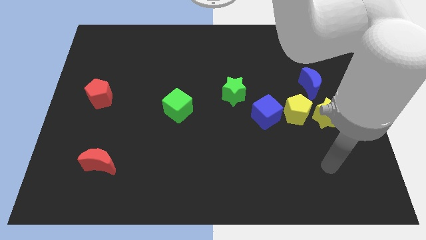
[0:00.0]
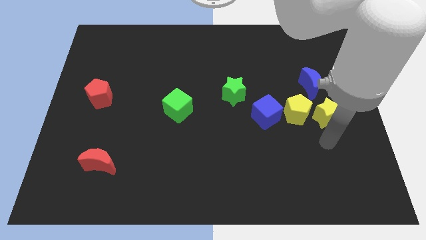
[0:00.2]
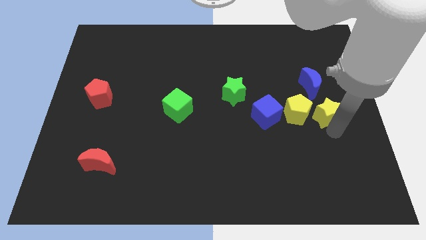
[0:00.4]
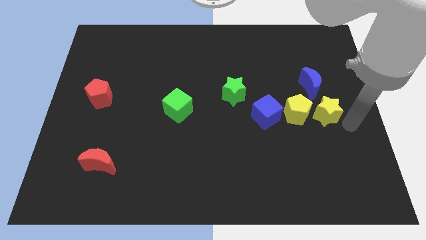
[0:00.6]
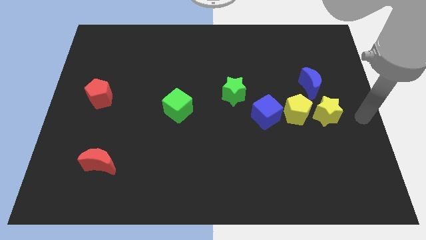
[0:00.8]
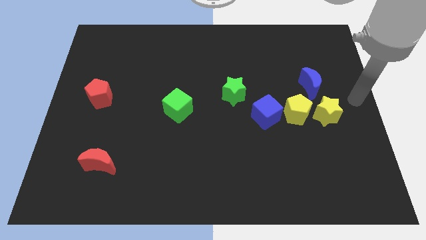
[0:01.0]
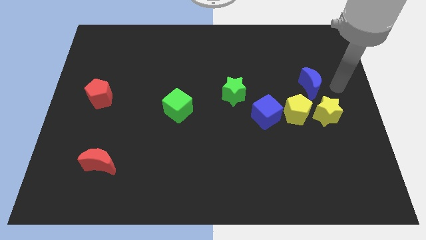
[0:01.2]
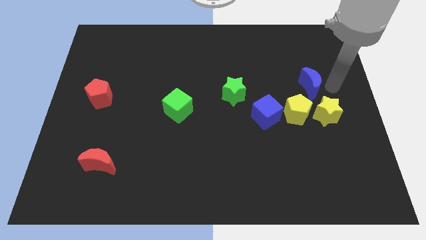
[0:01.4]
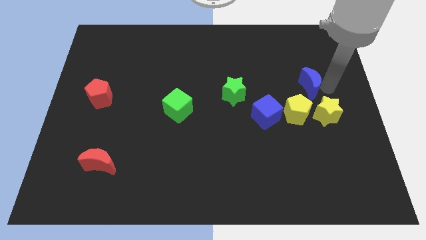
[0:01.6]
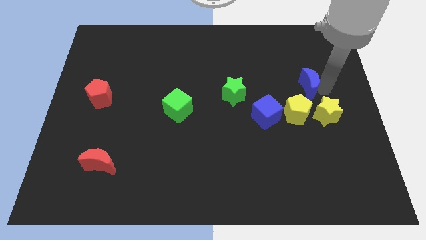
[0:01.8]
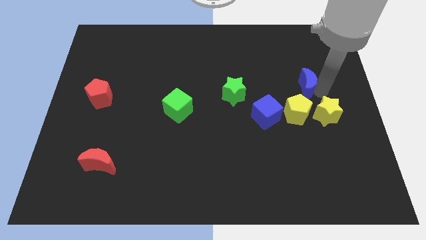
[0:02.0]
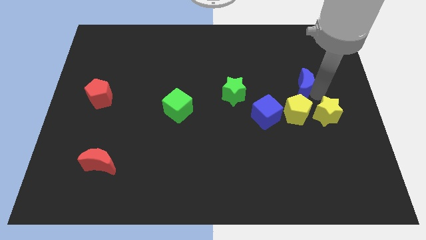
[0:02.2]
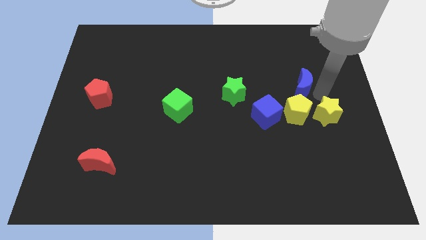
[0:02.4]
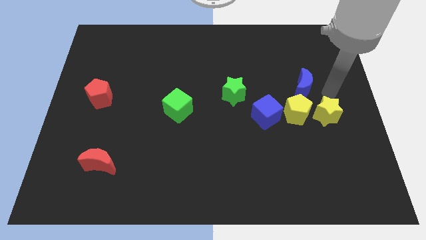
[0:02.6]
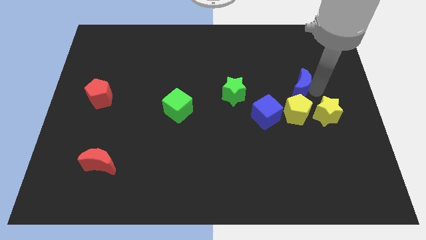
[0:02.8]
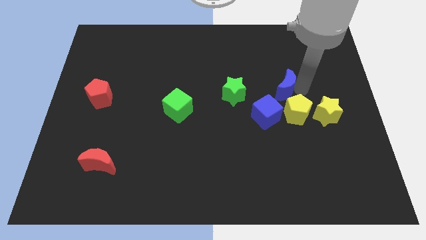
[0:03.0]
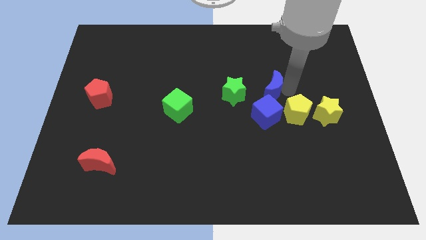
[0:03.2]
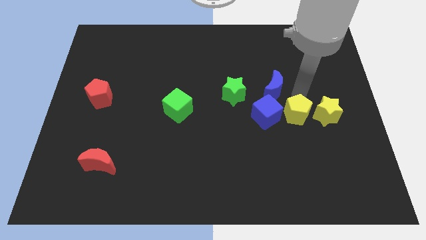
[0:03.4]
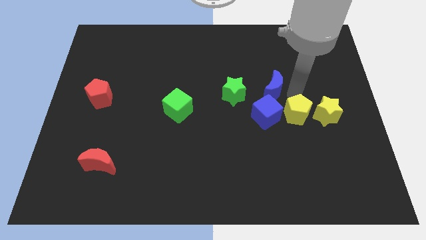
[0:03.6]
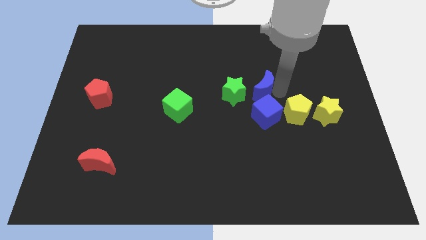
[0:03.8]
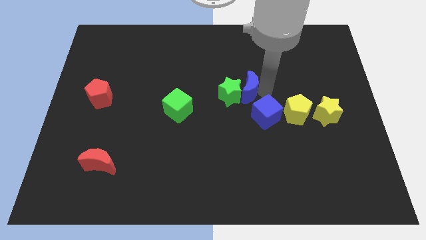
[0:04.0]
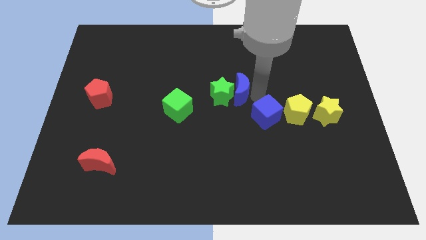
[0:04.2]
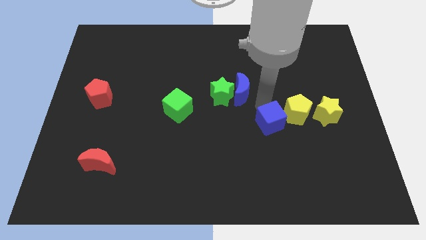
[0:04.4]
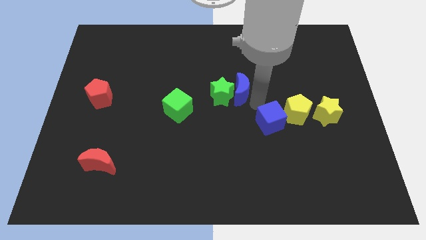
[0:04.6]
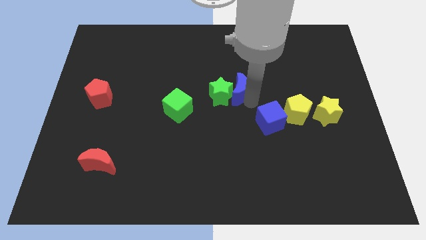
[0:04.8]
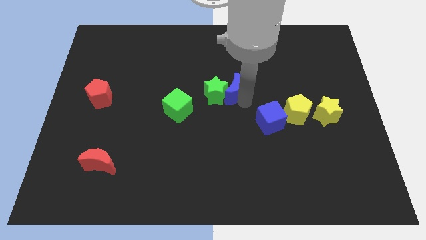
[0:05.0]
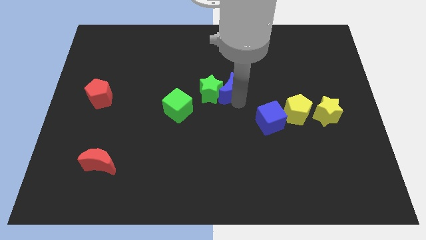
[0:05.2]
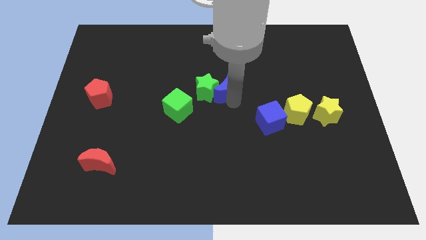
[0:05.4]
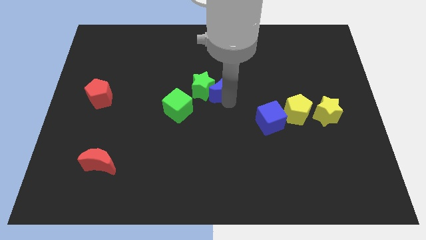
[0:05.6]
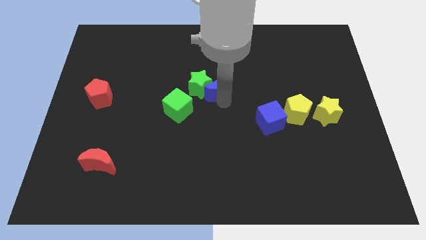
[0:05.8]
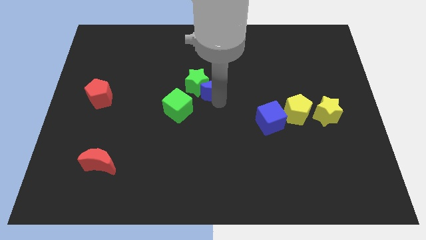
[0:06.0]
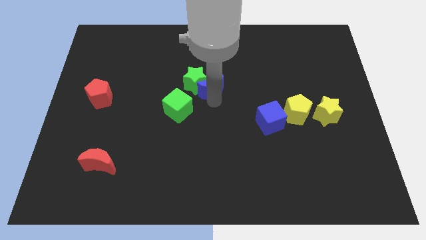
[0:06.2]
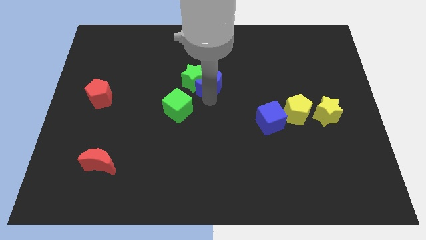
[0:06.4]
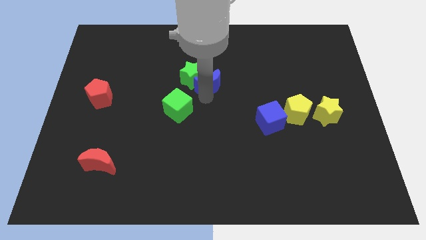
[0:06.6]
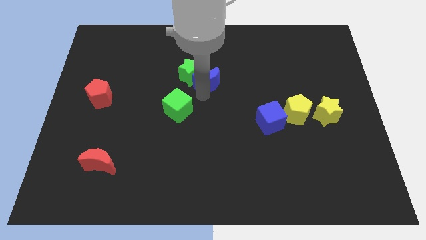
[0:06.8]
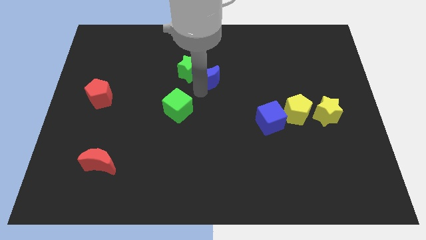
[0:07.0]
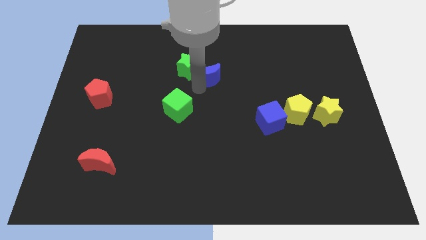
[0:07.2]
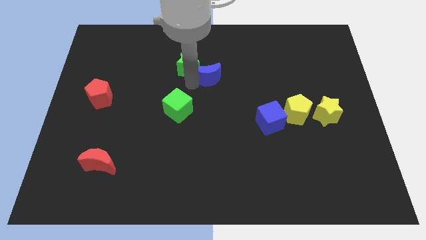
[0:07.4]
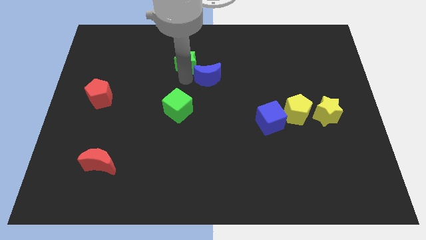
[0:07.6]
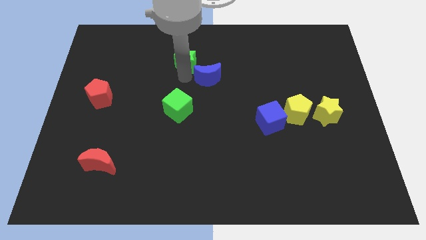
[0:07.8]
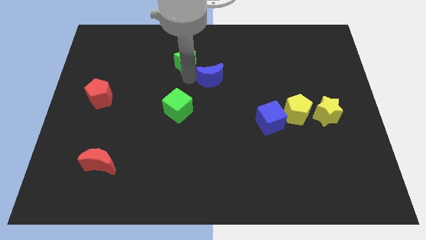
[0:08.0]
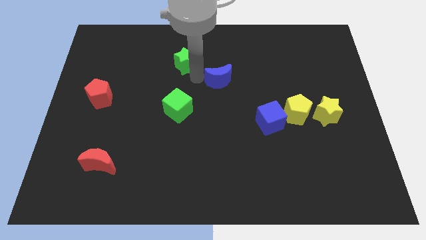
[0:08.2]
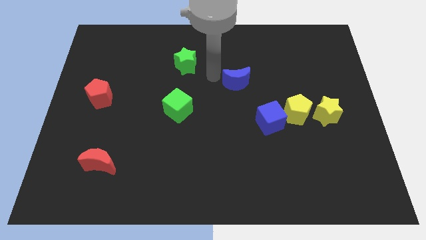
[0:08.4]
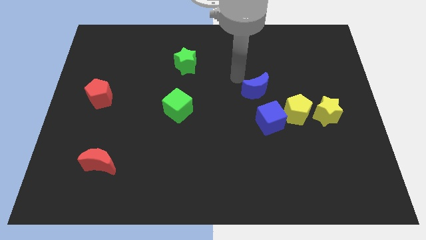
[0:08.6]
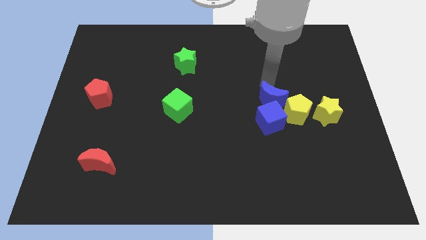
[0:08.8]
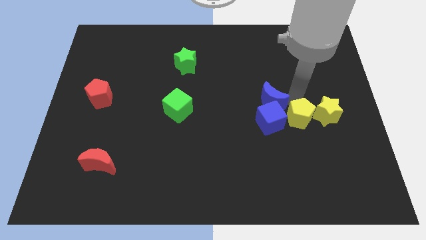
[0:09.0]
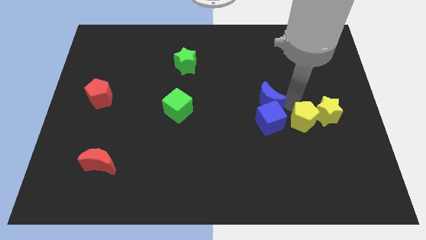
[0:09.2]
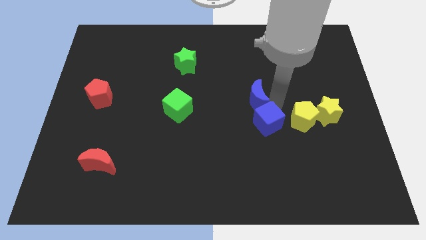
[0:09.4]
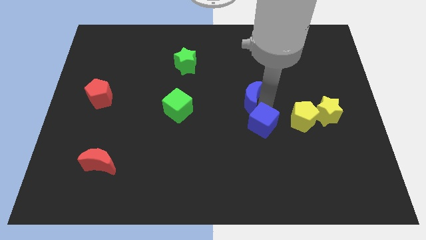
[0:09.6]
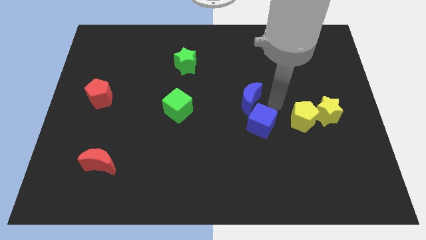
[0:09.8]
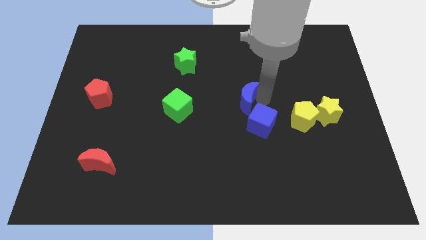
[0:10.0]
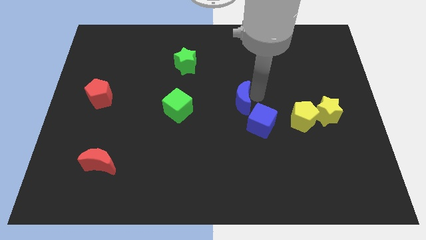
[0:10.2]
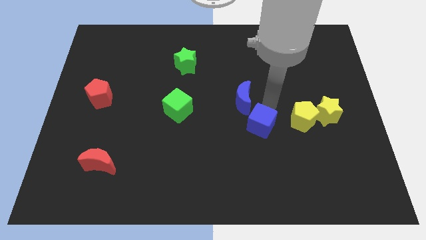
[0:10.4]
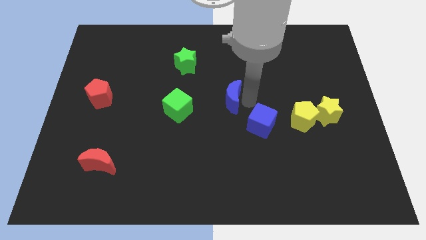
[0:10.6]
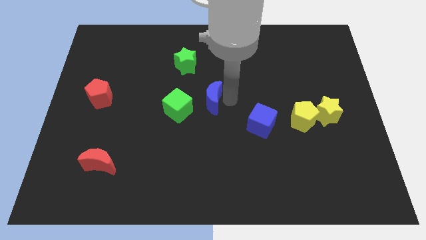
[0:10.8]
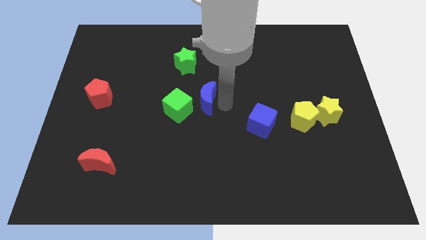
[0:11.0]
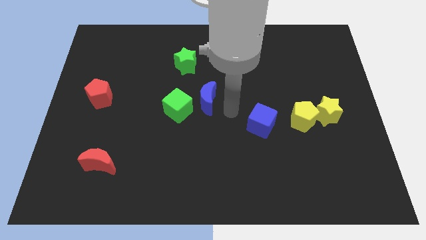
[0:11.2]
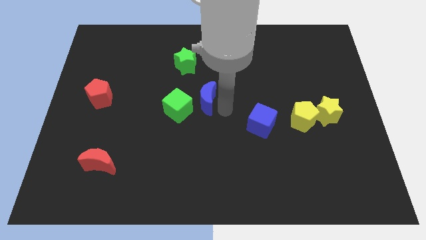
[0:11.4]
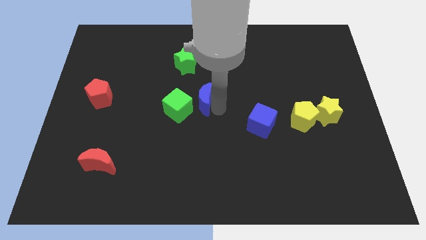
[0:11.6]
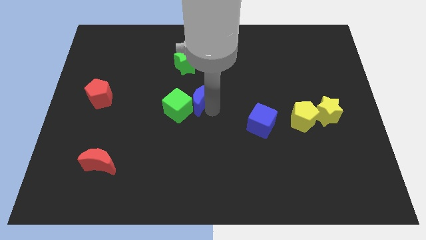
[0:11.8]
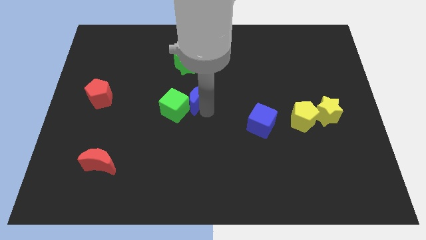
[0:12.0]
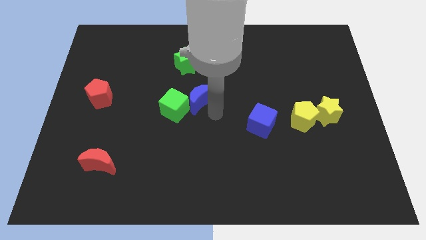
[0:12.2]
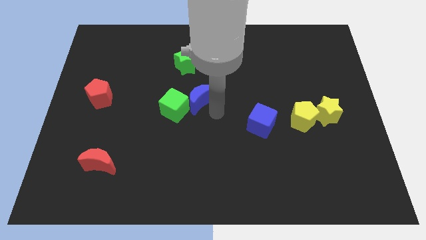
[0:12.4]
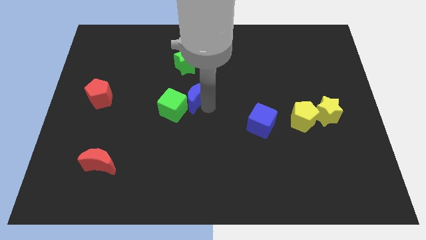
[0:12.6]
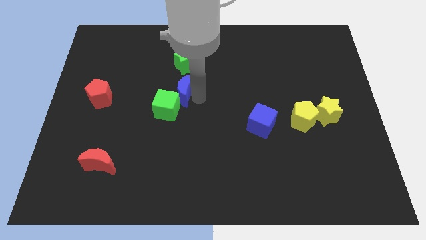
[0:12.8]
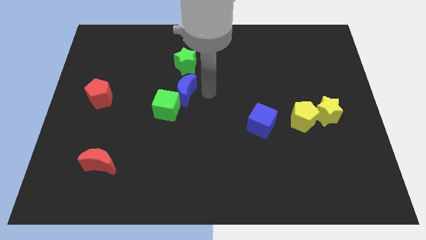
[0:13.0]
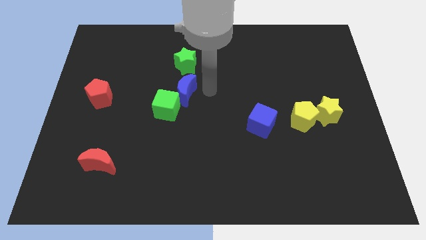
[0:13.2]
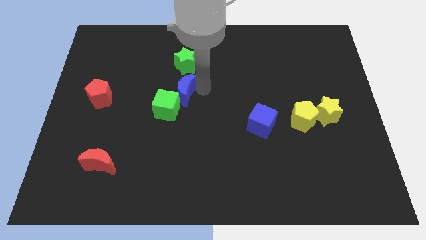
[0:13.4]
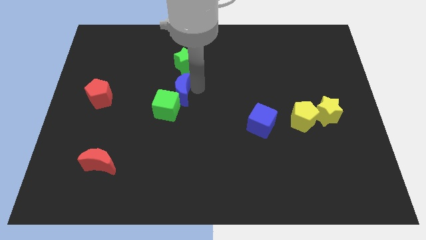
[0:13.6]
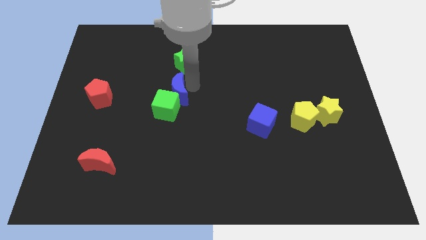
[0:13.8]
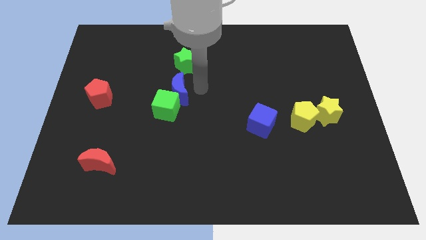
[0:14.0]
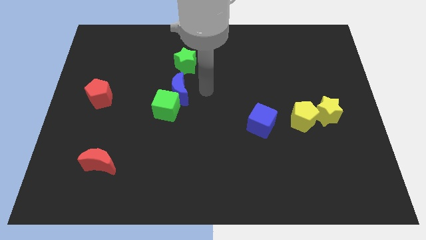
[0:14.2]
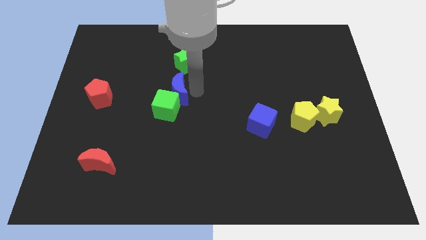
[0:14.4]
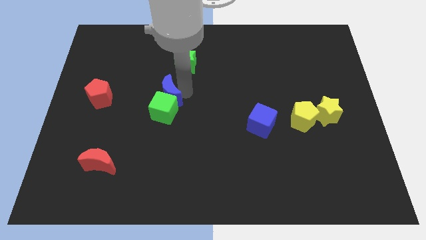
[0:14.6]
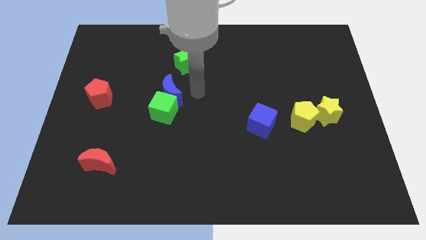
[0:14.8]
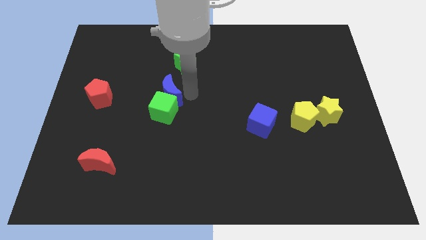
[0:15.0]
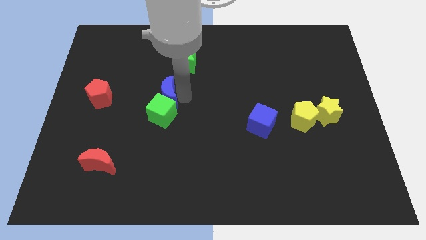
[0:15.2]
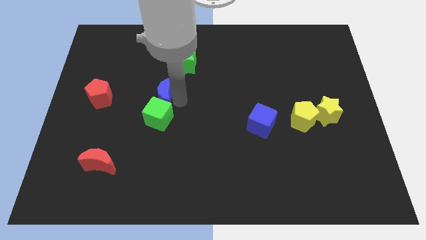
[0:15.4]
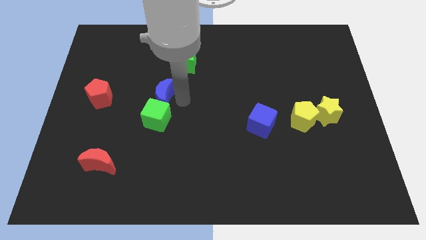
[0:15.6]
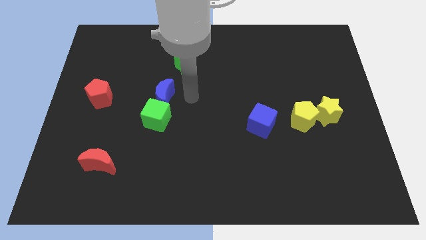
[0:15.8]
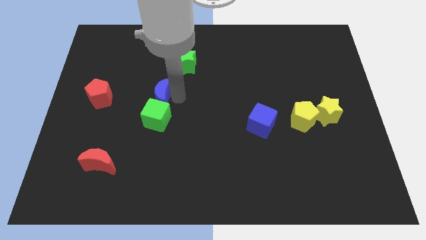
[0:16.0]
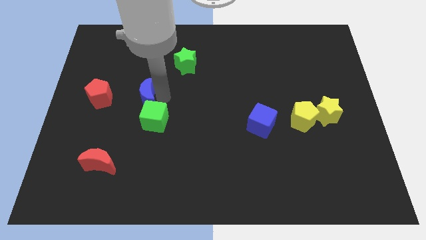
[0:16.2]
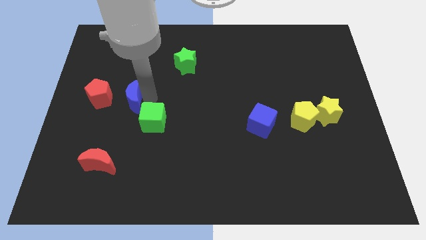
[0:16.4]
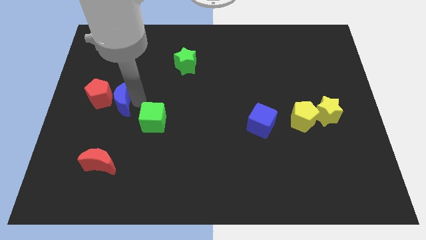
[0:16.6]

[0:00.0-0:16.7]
push the blue moon next to the red pentagon
